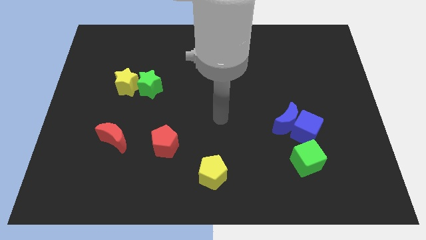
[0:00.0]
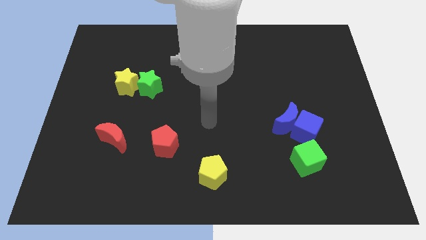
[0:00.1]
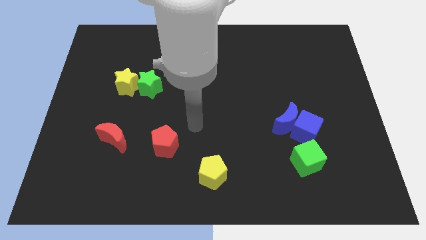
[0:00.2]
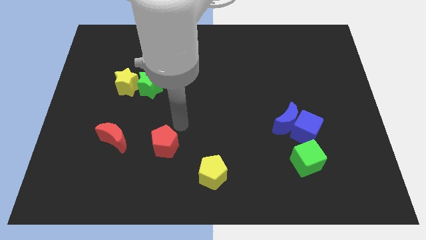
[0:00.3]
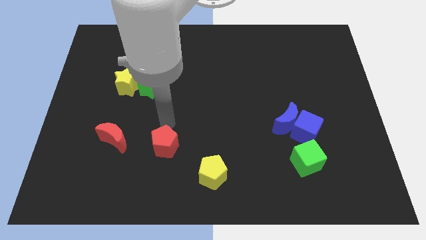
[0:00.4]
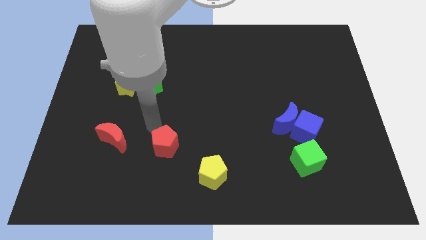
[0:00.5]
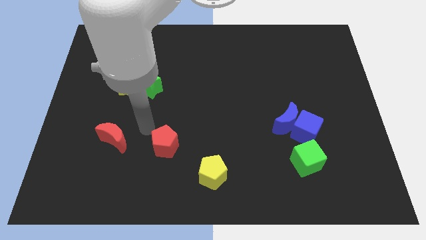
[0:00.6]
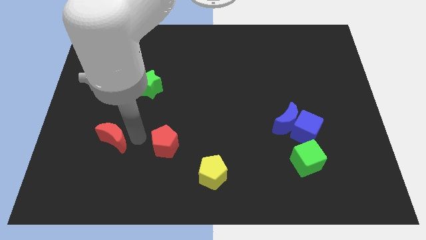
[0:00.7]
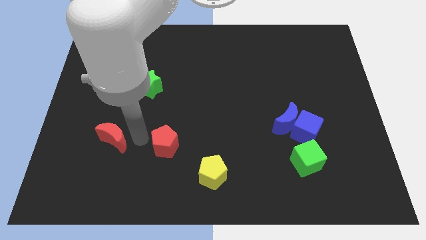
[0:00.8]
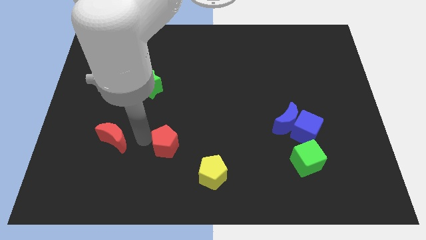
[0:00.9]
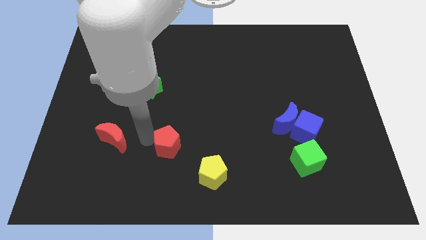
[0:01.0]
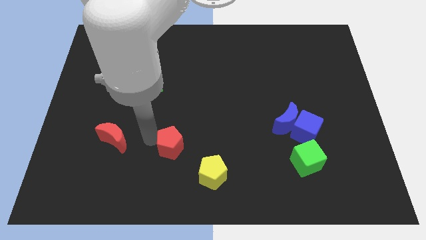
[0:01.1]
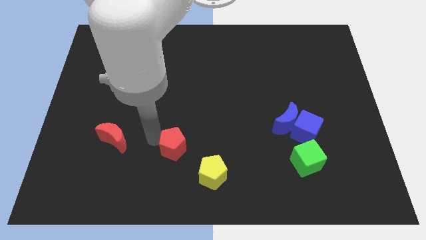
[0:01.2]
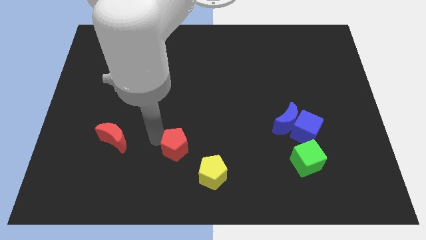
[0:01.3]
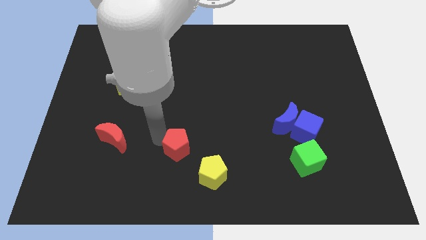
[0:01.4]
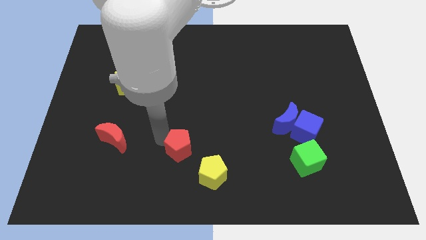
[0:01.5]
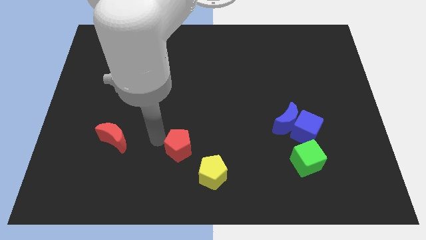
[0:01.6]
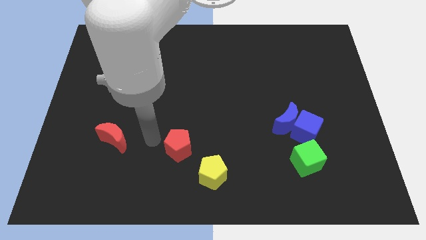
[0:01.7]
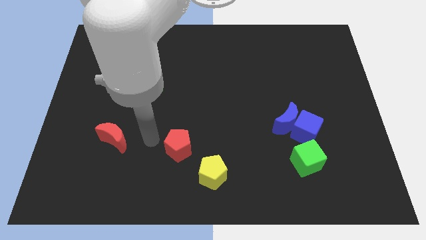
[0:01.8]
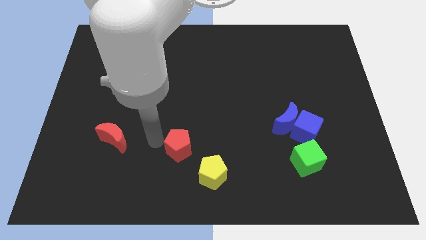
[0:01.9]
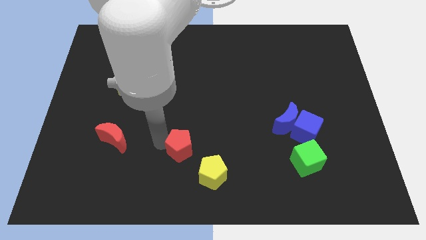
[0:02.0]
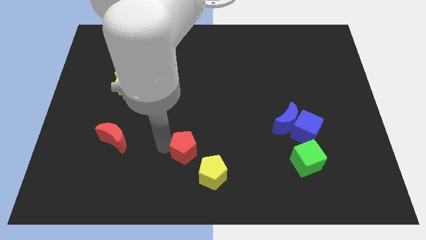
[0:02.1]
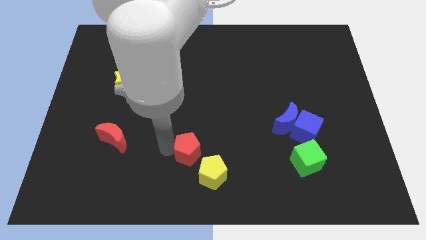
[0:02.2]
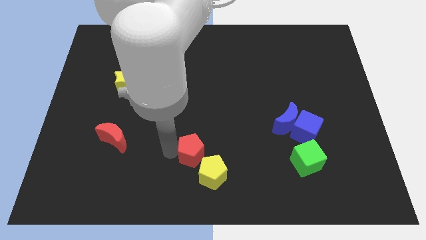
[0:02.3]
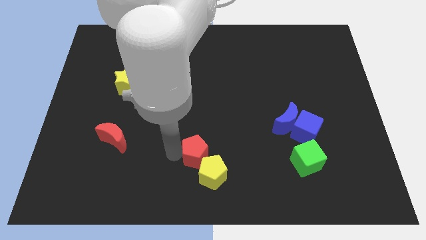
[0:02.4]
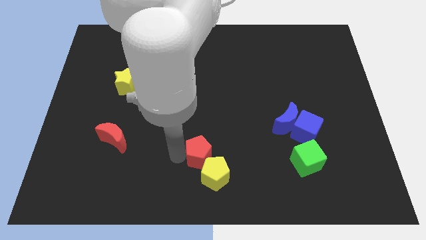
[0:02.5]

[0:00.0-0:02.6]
move the red pentagon right a little bit

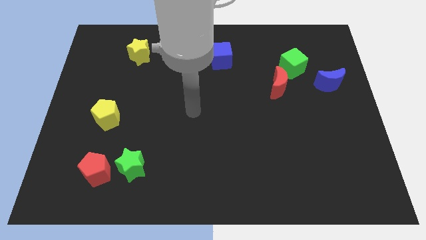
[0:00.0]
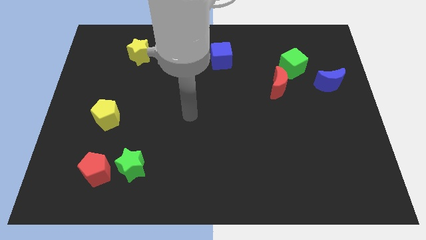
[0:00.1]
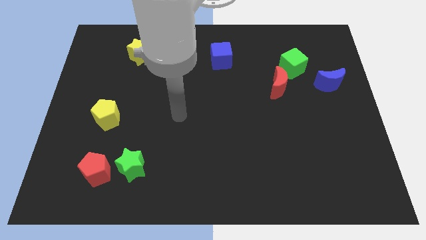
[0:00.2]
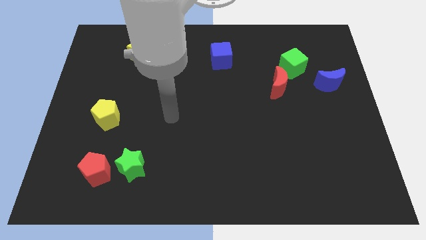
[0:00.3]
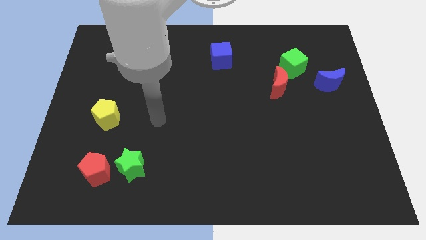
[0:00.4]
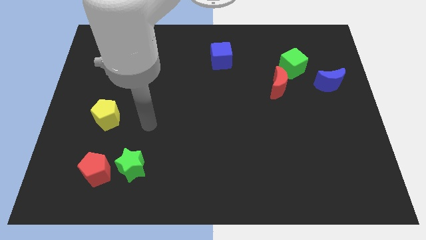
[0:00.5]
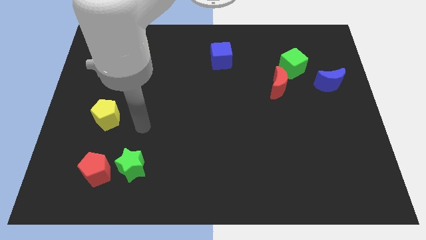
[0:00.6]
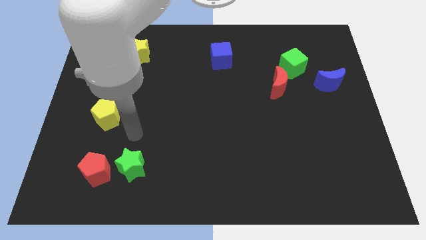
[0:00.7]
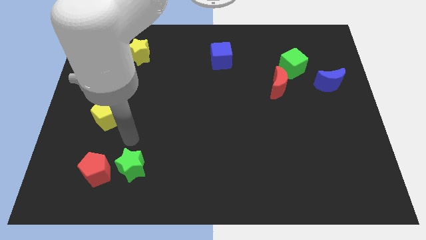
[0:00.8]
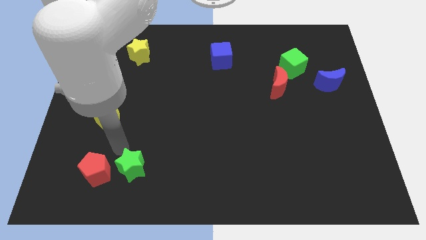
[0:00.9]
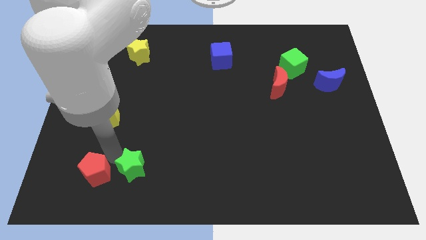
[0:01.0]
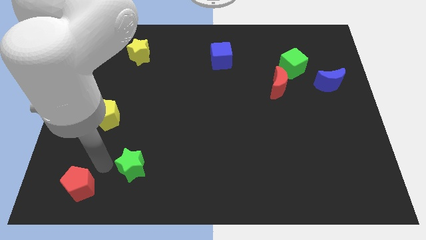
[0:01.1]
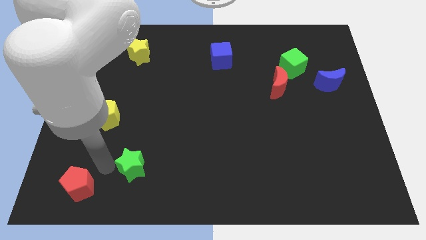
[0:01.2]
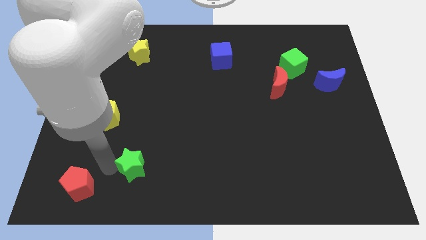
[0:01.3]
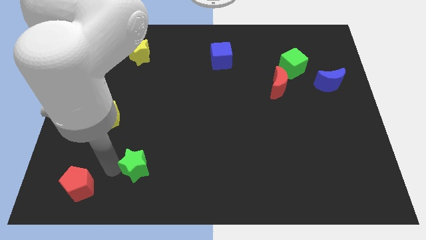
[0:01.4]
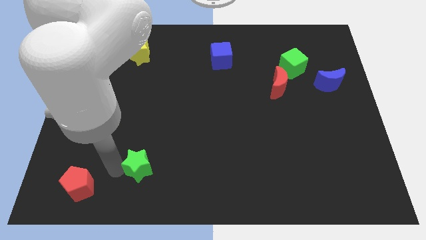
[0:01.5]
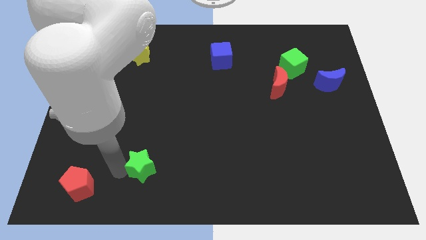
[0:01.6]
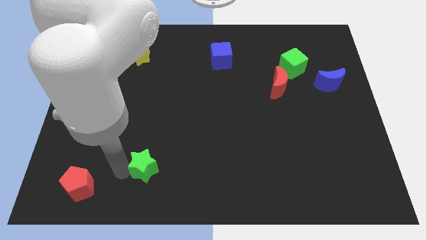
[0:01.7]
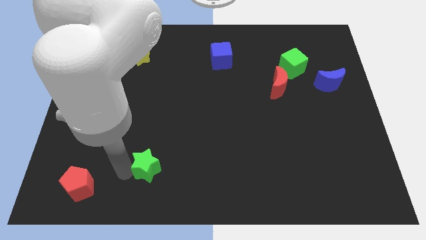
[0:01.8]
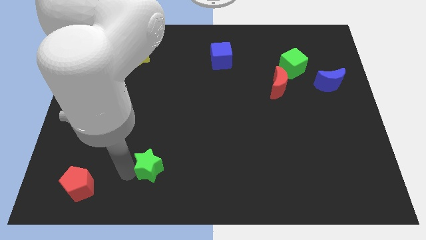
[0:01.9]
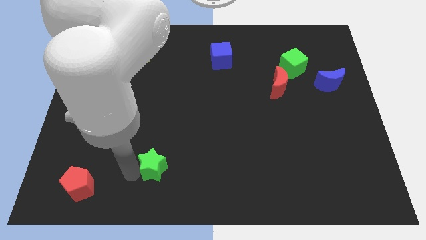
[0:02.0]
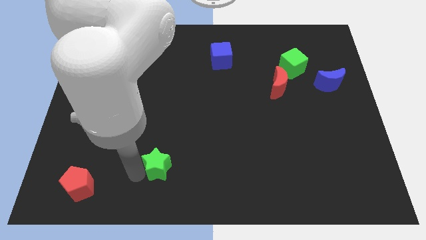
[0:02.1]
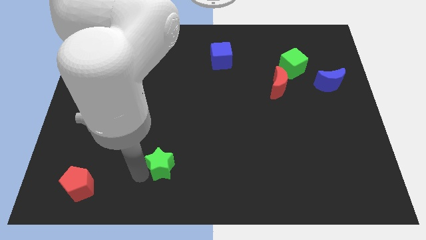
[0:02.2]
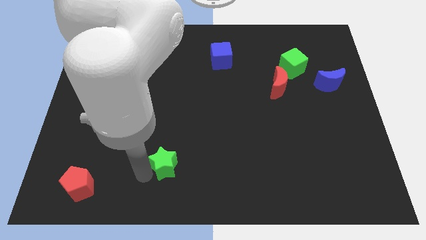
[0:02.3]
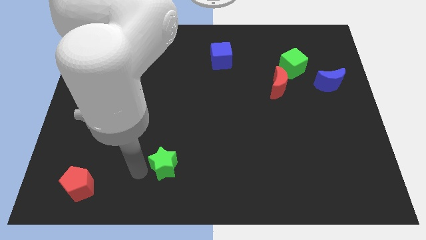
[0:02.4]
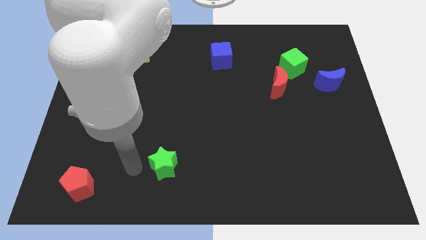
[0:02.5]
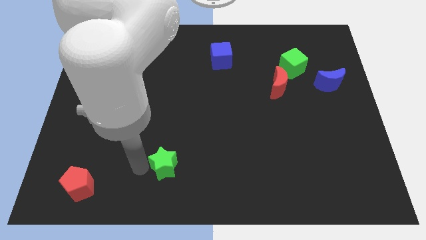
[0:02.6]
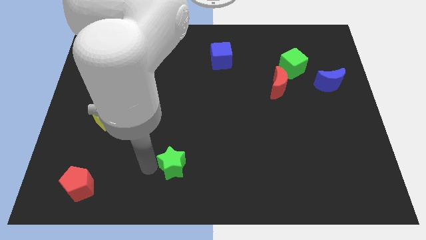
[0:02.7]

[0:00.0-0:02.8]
push the green star to the right a bit

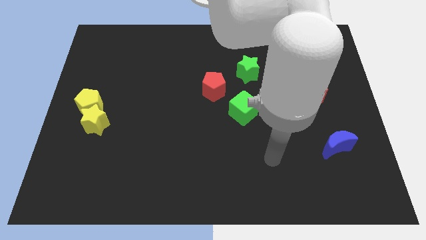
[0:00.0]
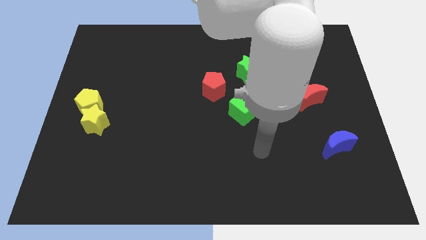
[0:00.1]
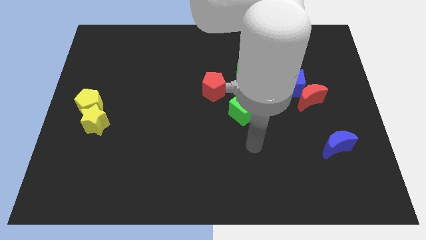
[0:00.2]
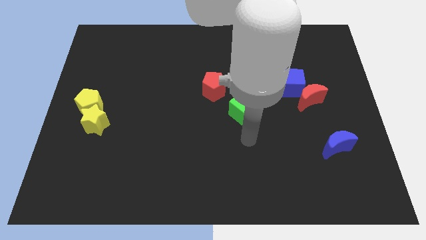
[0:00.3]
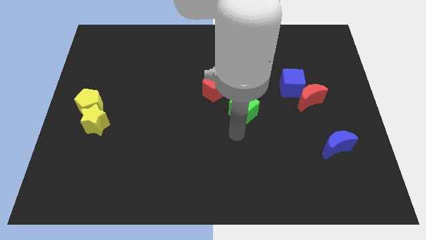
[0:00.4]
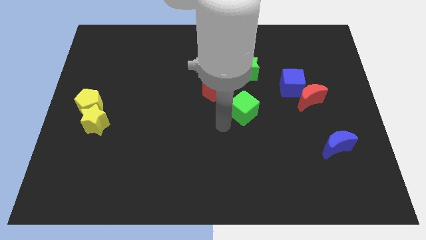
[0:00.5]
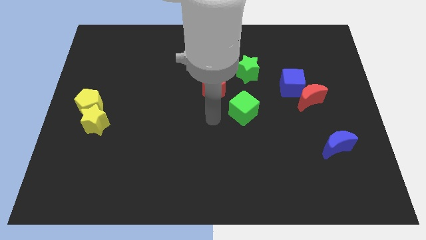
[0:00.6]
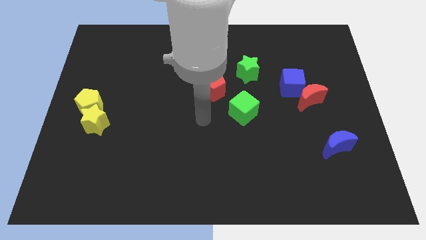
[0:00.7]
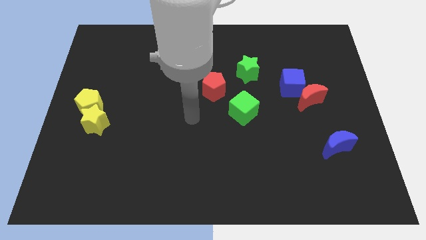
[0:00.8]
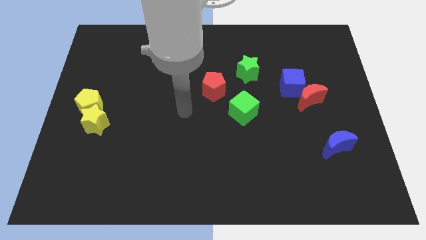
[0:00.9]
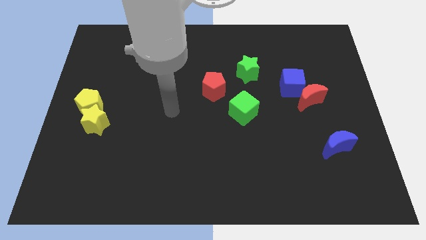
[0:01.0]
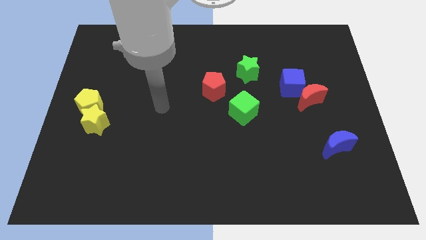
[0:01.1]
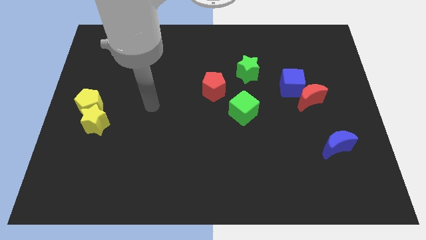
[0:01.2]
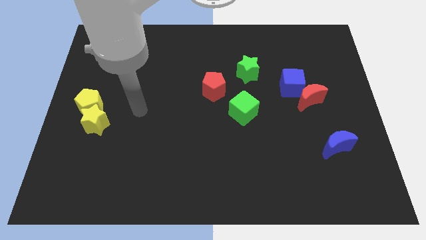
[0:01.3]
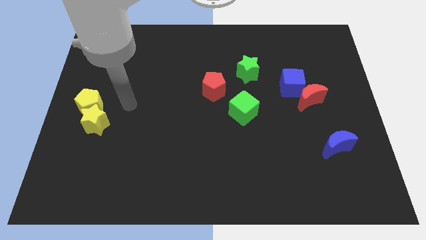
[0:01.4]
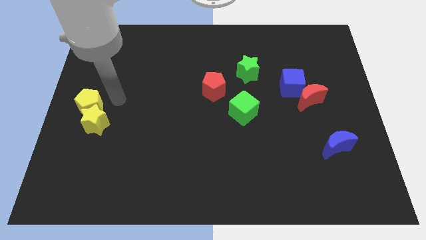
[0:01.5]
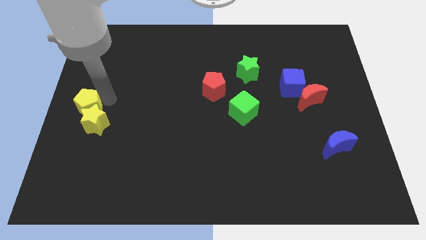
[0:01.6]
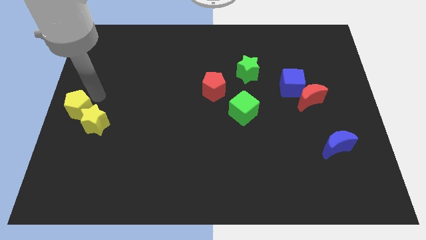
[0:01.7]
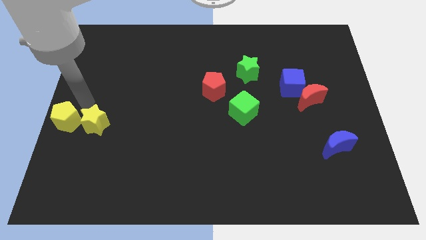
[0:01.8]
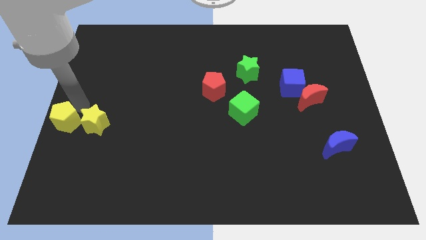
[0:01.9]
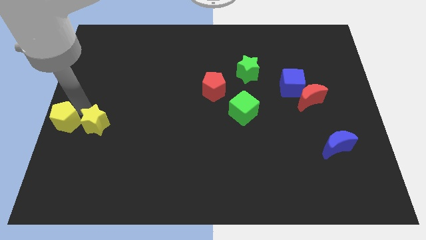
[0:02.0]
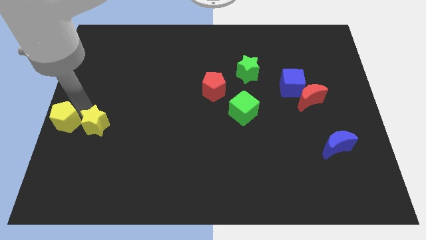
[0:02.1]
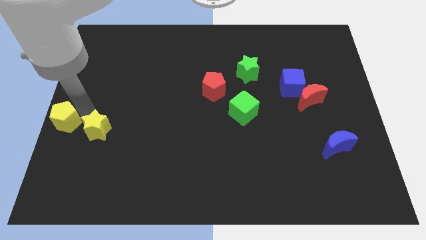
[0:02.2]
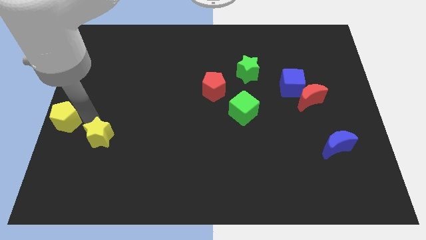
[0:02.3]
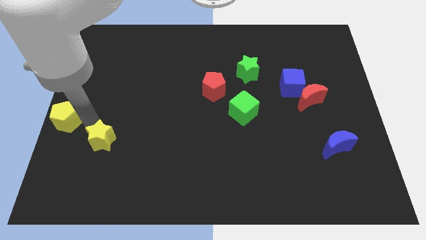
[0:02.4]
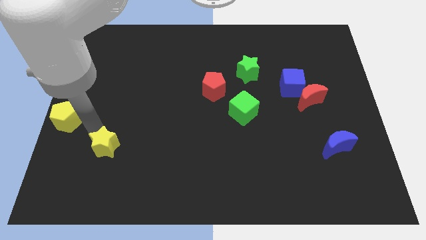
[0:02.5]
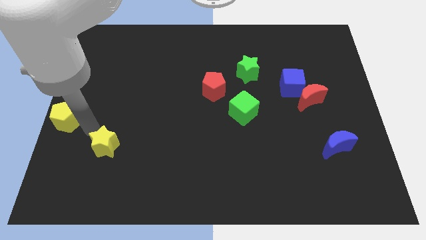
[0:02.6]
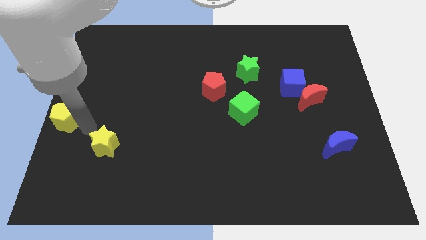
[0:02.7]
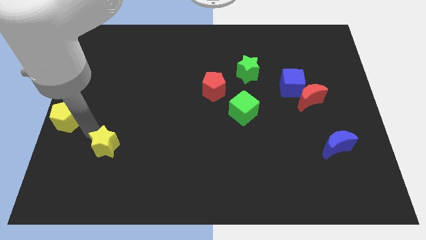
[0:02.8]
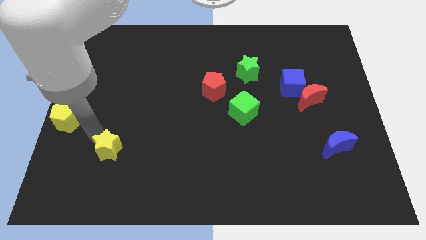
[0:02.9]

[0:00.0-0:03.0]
slide the yellow star somewhat downwards and then to the right
